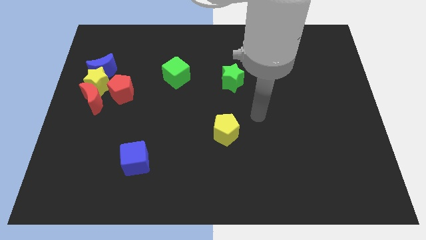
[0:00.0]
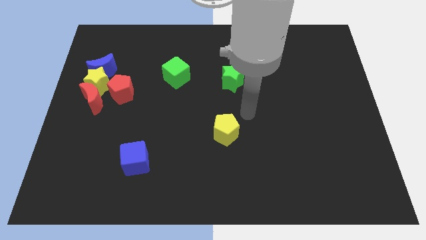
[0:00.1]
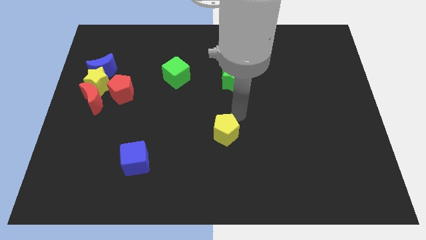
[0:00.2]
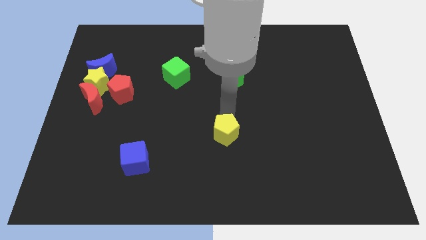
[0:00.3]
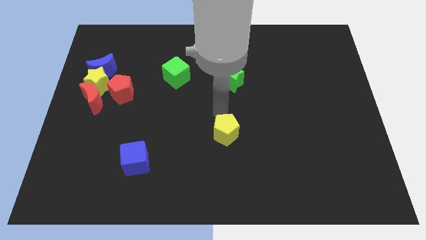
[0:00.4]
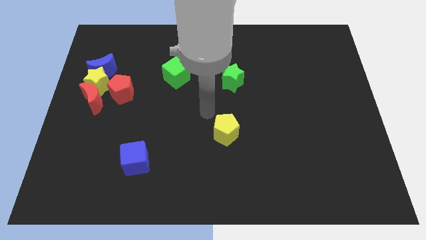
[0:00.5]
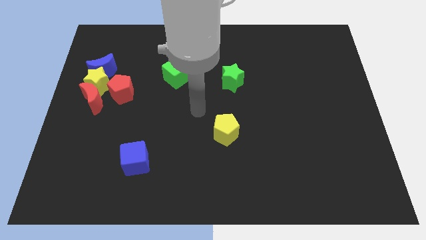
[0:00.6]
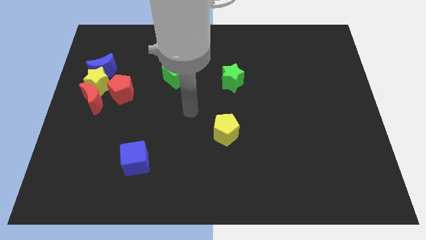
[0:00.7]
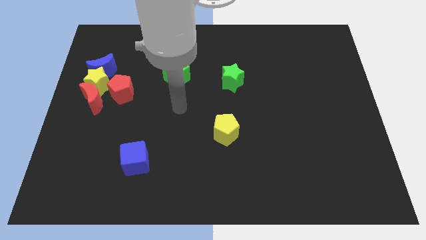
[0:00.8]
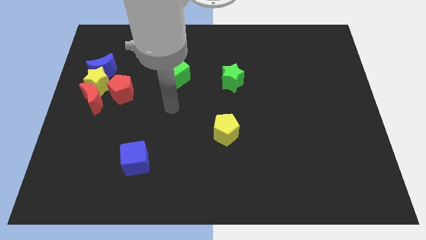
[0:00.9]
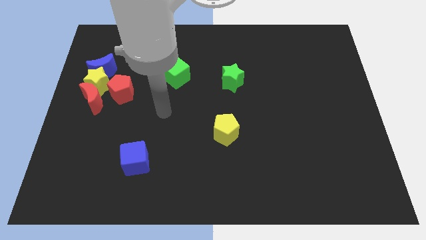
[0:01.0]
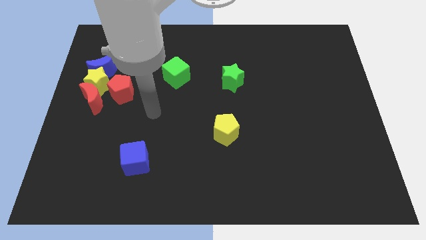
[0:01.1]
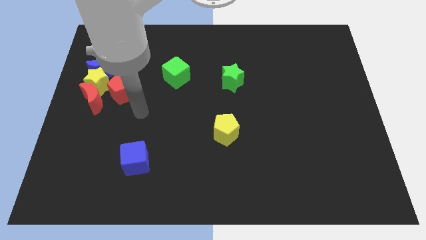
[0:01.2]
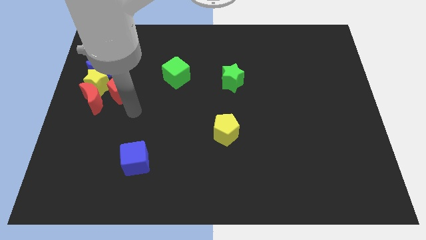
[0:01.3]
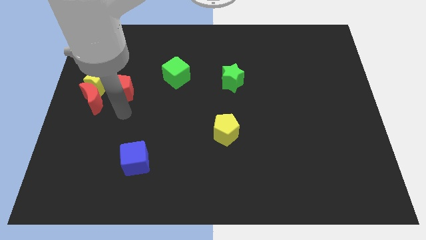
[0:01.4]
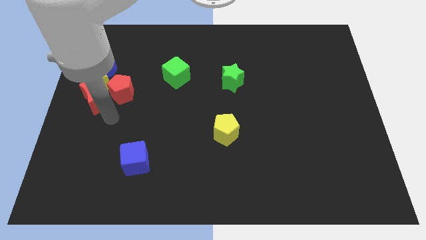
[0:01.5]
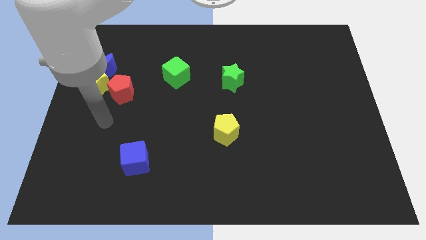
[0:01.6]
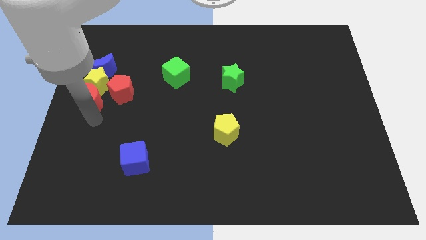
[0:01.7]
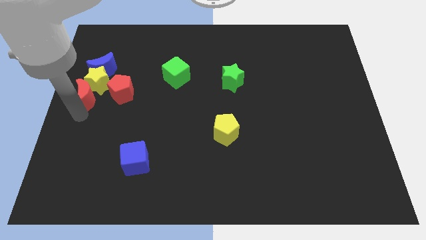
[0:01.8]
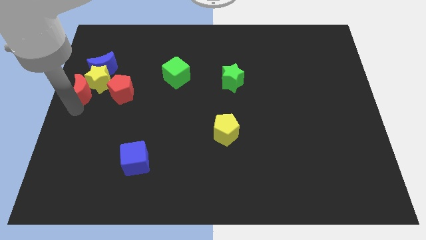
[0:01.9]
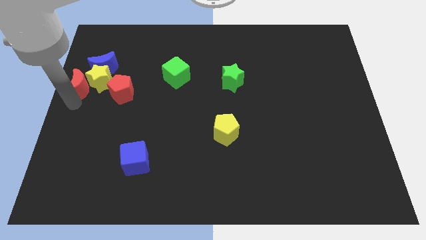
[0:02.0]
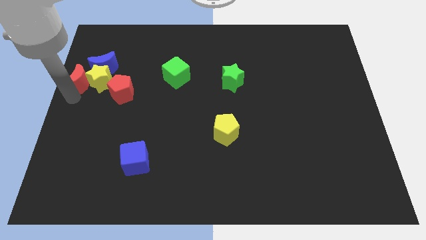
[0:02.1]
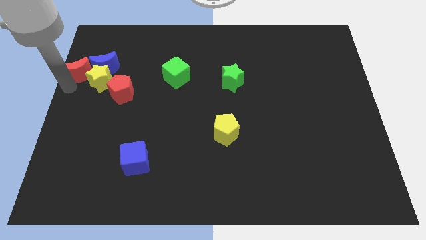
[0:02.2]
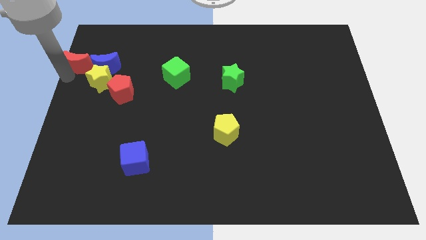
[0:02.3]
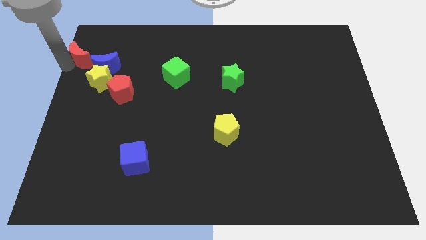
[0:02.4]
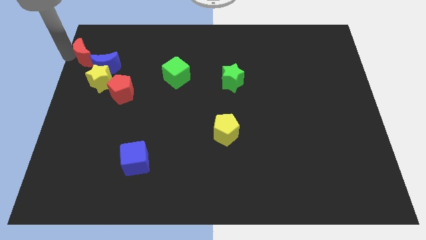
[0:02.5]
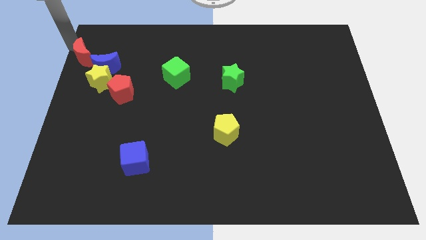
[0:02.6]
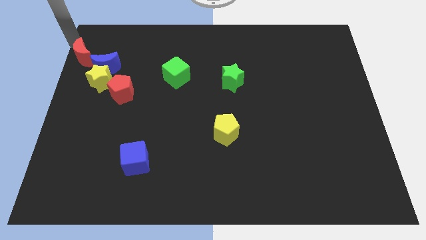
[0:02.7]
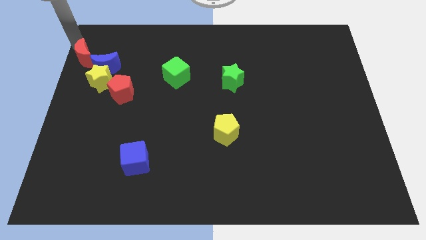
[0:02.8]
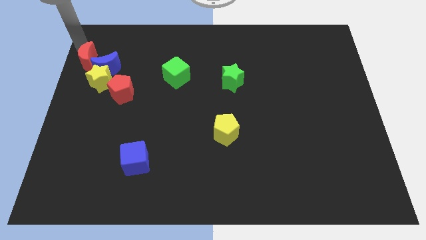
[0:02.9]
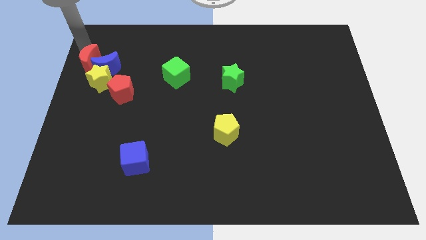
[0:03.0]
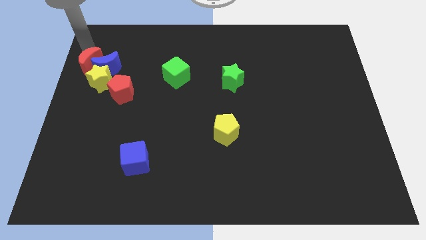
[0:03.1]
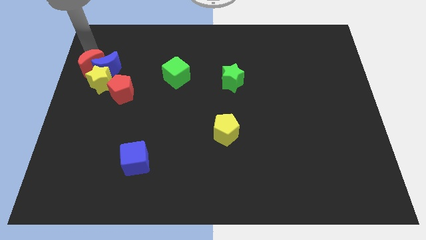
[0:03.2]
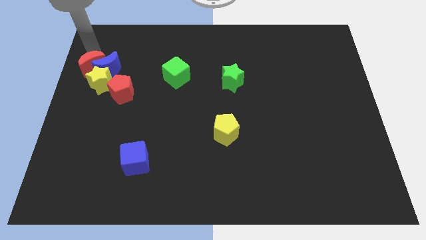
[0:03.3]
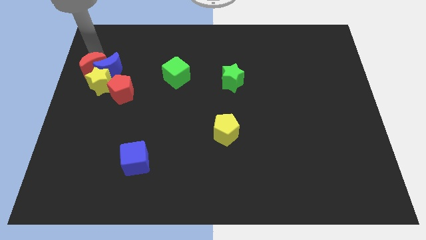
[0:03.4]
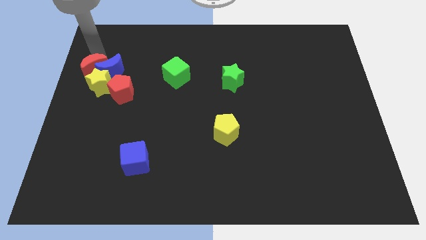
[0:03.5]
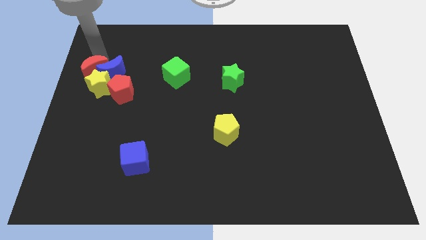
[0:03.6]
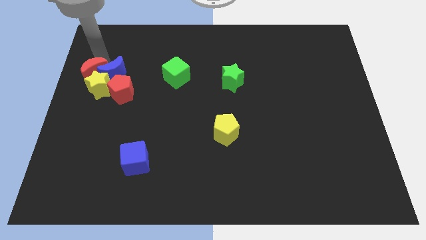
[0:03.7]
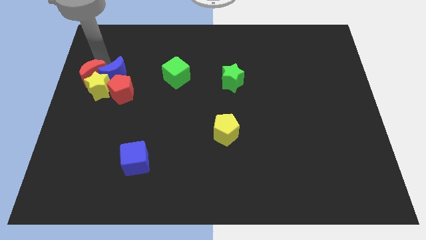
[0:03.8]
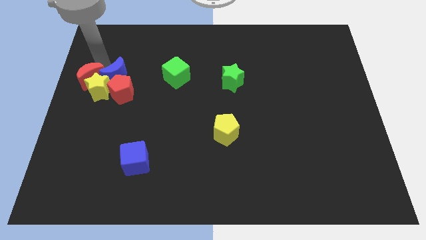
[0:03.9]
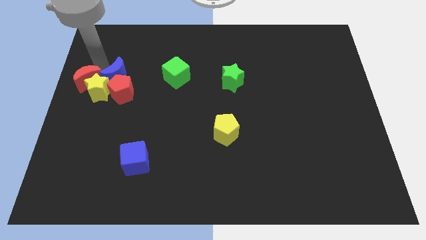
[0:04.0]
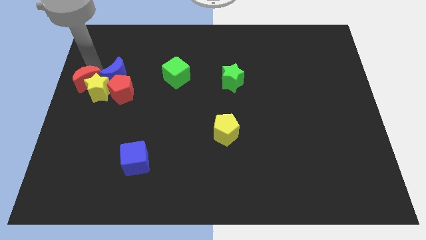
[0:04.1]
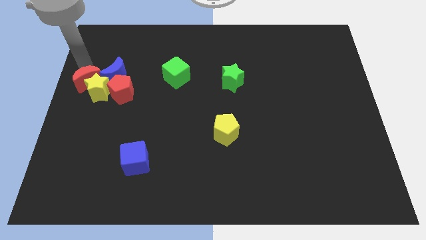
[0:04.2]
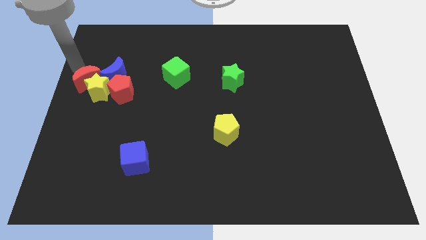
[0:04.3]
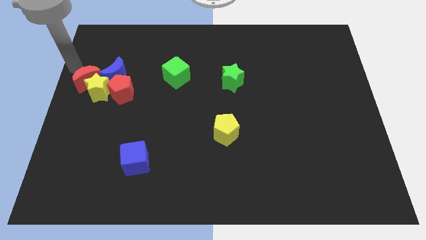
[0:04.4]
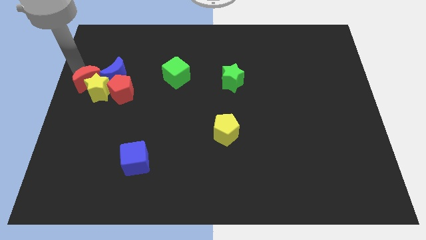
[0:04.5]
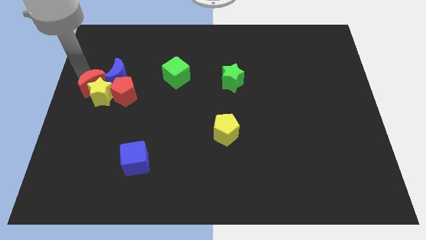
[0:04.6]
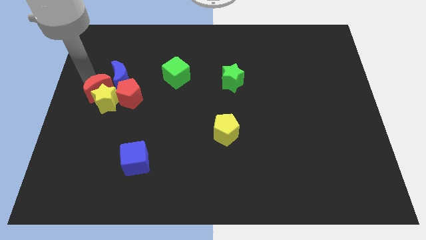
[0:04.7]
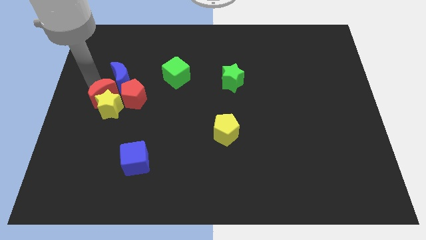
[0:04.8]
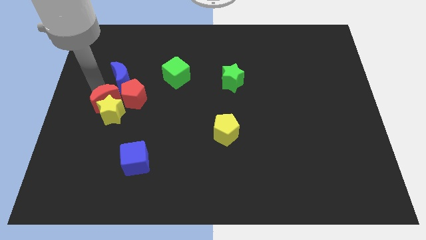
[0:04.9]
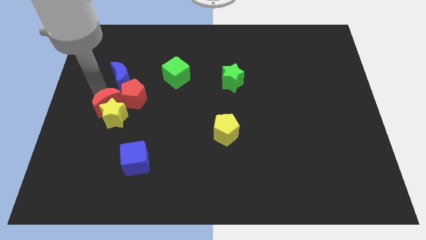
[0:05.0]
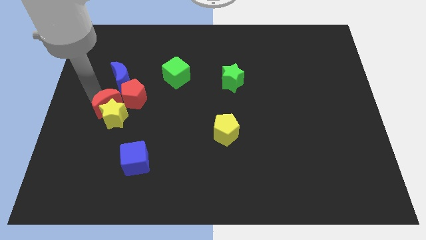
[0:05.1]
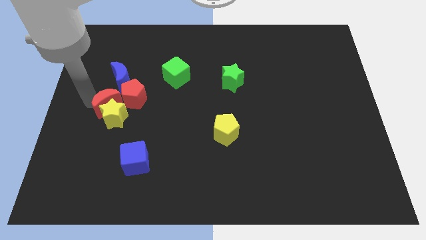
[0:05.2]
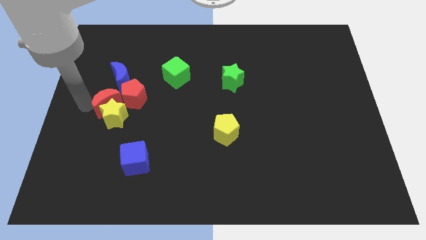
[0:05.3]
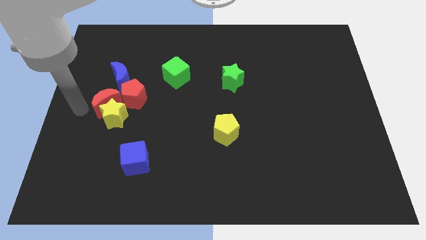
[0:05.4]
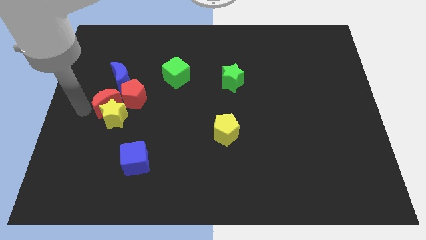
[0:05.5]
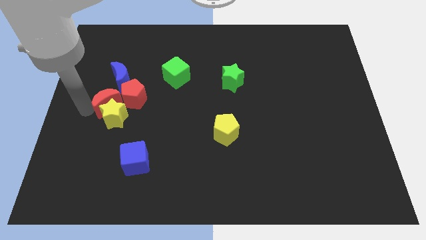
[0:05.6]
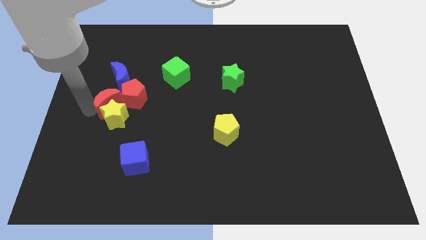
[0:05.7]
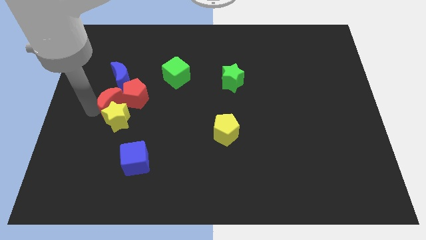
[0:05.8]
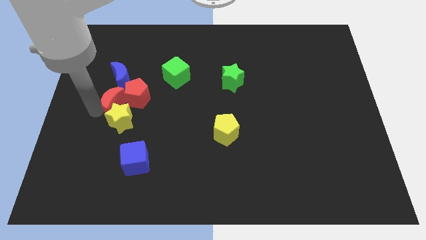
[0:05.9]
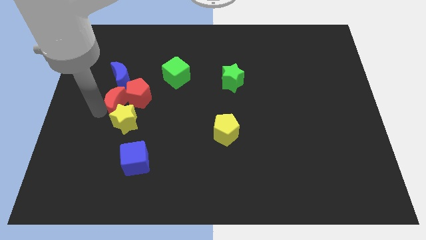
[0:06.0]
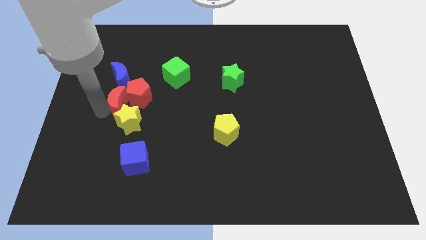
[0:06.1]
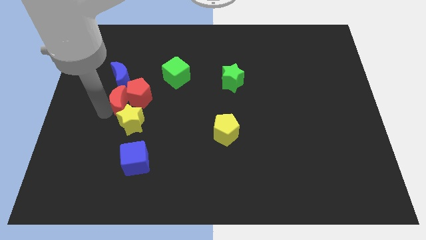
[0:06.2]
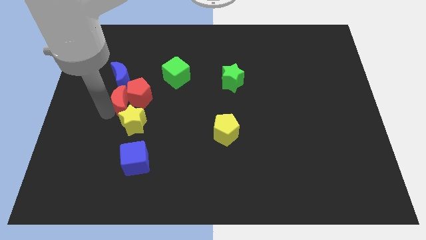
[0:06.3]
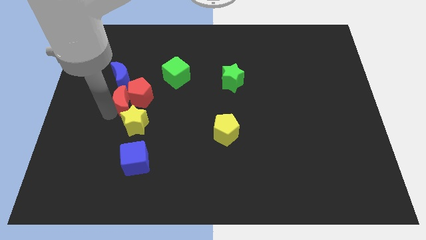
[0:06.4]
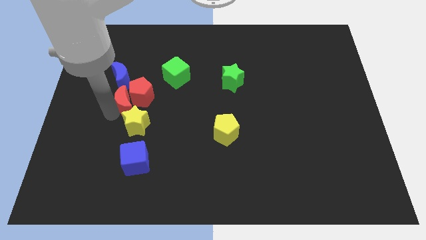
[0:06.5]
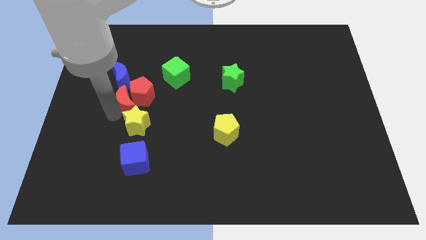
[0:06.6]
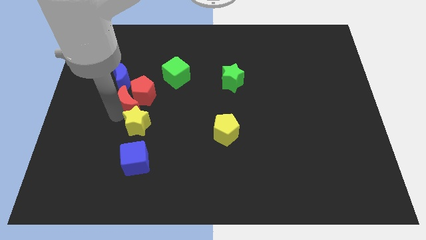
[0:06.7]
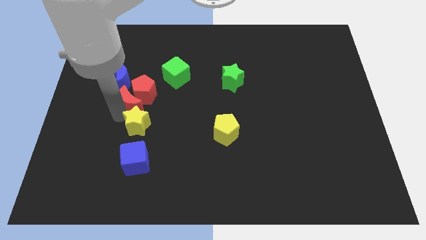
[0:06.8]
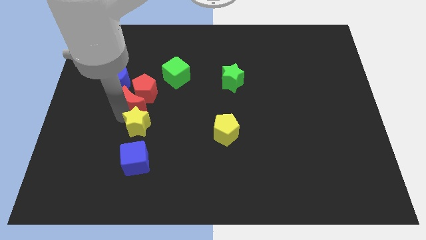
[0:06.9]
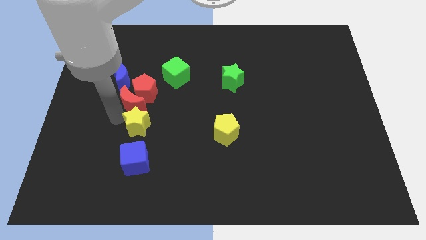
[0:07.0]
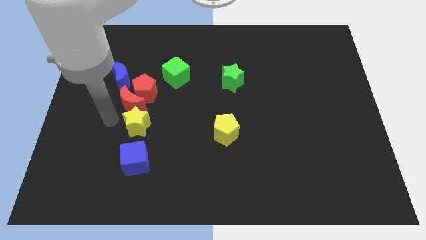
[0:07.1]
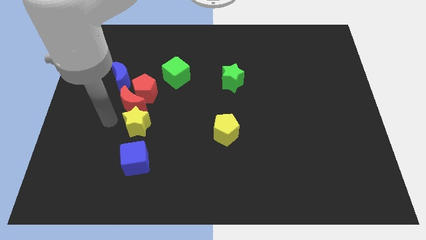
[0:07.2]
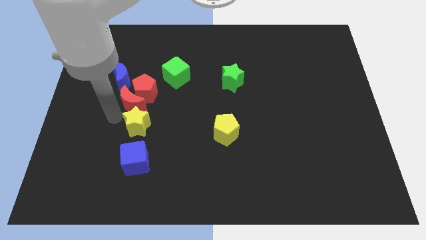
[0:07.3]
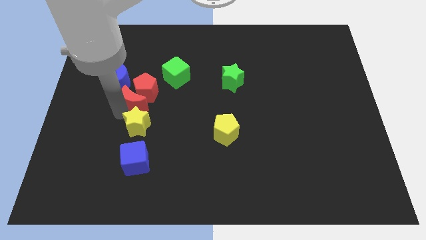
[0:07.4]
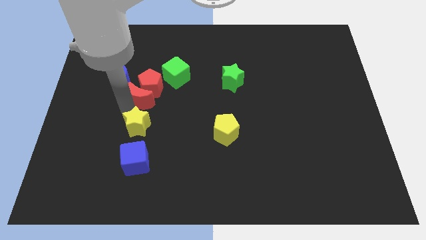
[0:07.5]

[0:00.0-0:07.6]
put the red moon to the bottom left of the green cube

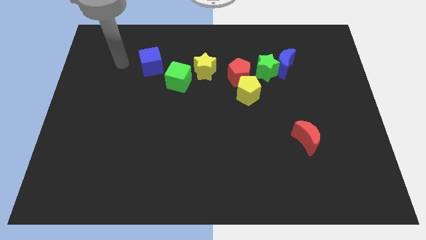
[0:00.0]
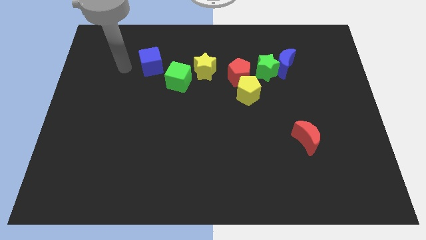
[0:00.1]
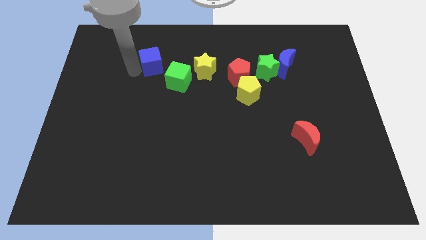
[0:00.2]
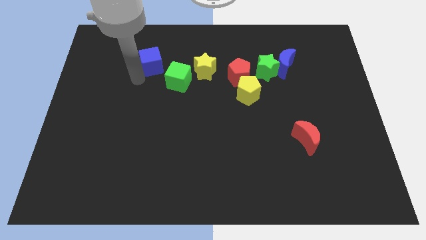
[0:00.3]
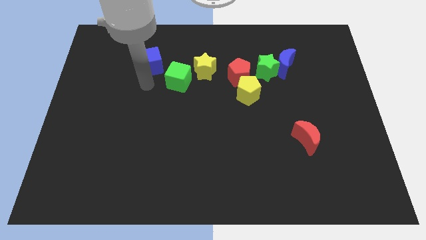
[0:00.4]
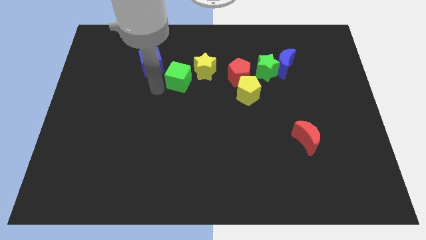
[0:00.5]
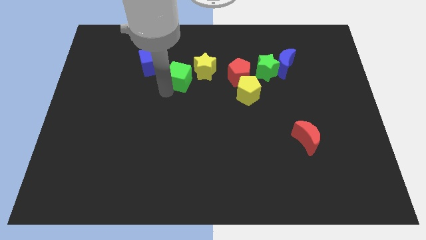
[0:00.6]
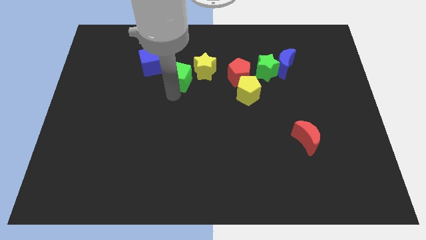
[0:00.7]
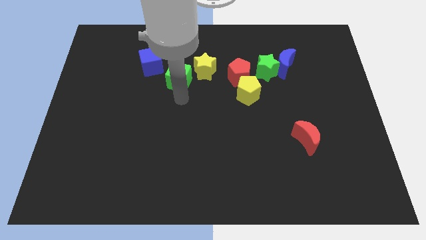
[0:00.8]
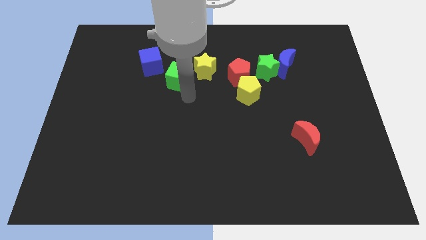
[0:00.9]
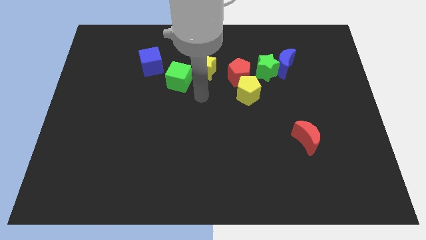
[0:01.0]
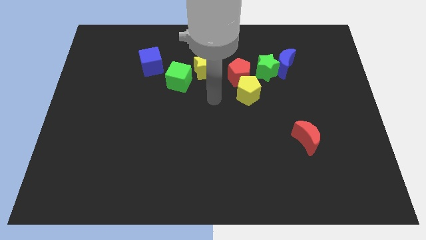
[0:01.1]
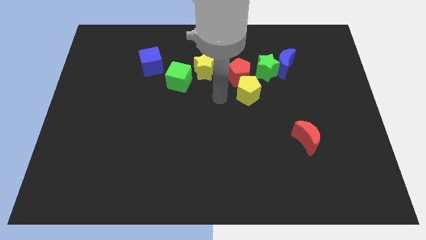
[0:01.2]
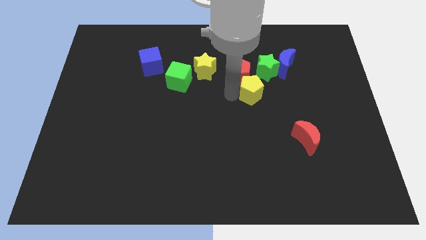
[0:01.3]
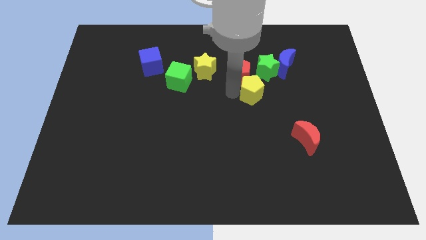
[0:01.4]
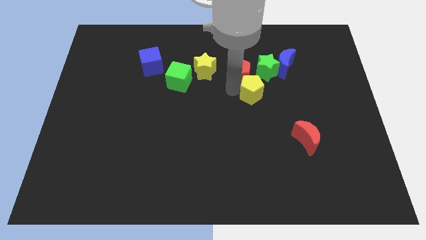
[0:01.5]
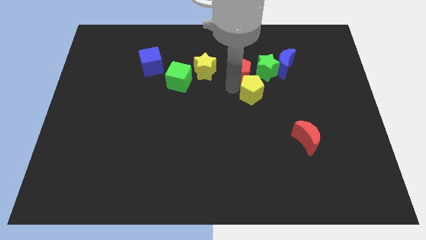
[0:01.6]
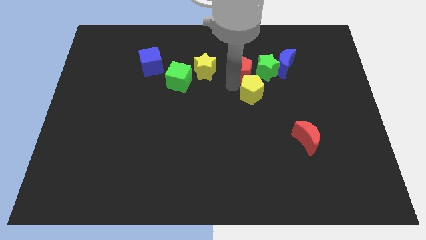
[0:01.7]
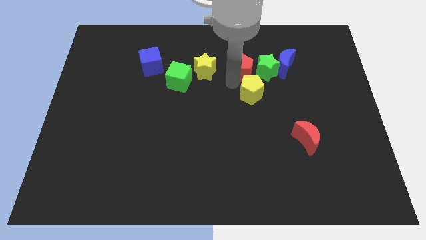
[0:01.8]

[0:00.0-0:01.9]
put the red pentagon diagonally up and to the left of the green star
